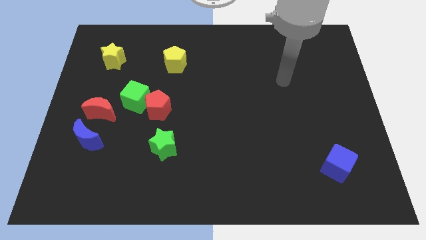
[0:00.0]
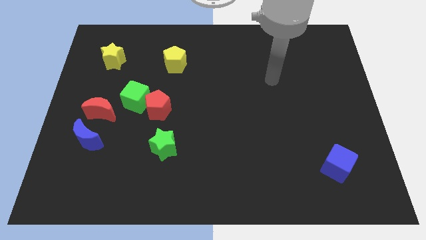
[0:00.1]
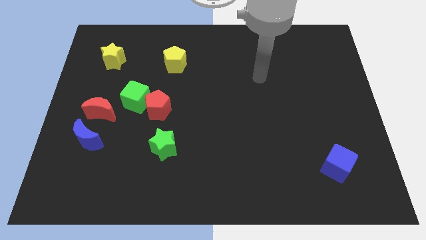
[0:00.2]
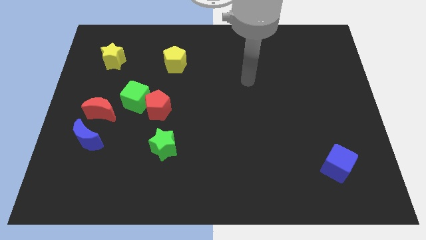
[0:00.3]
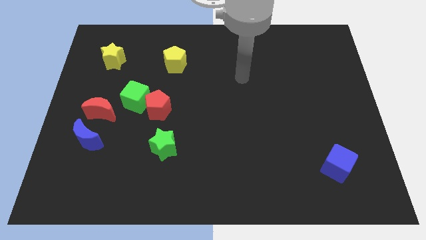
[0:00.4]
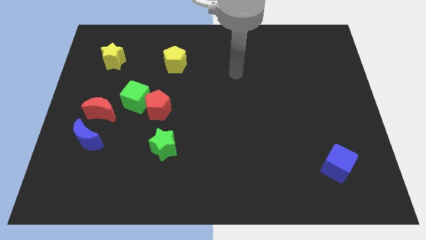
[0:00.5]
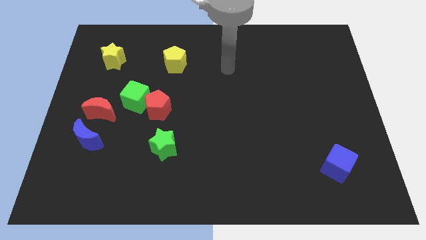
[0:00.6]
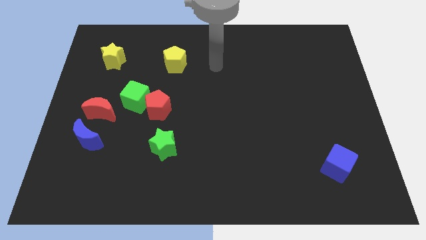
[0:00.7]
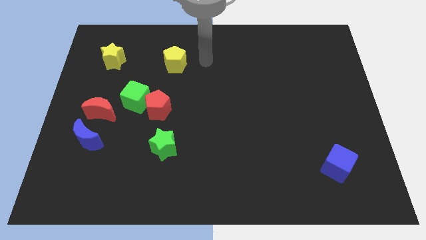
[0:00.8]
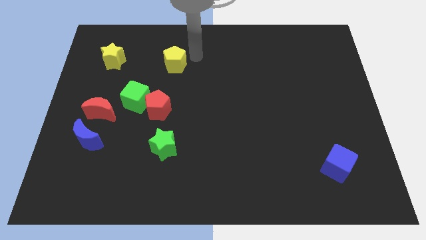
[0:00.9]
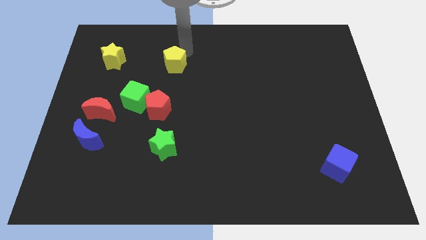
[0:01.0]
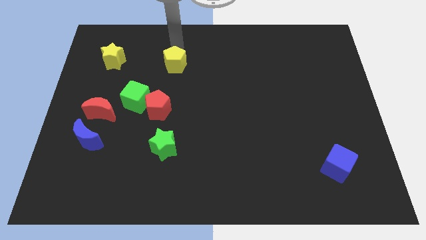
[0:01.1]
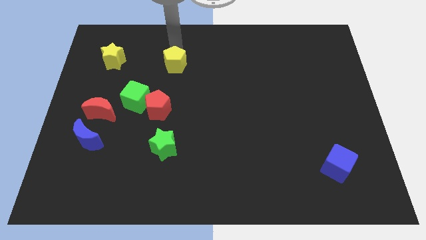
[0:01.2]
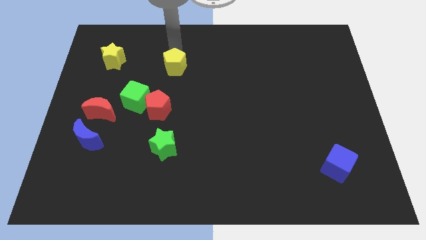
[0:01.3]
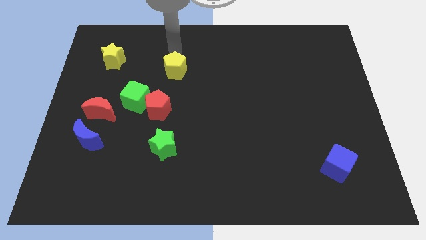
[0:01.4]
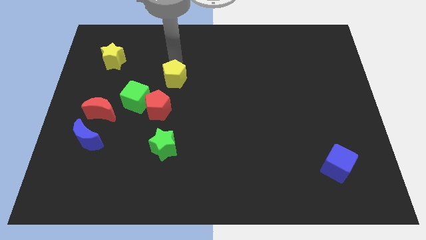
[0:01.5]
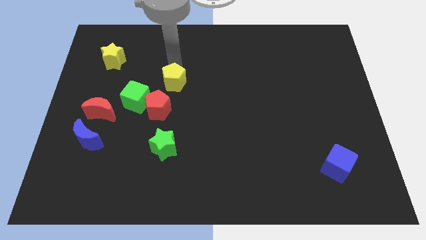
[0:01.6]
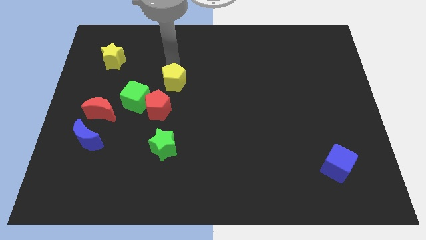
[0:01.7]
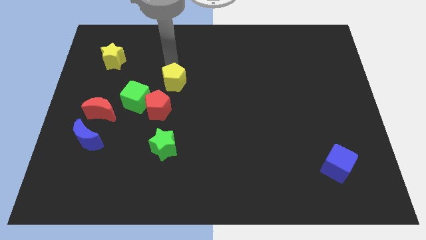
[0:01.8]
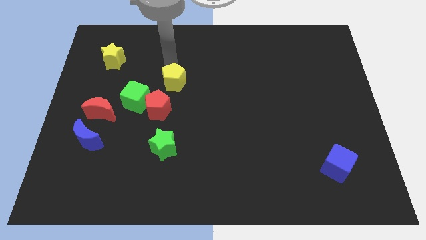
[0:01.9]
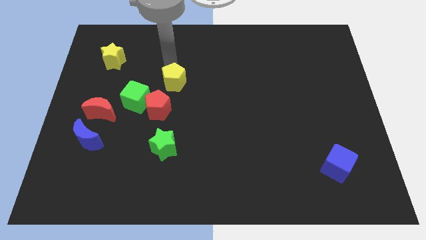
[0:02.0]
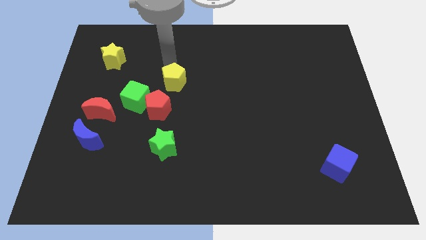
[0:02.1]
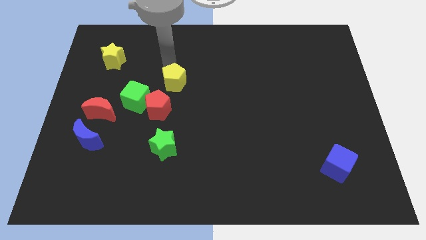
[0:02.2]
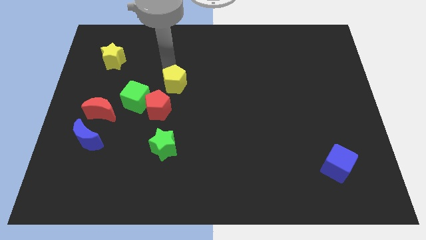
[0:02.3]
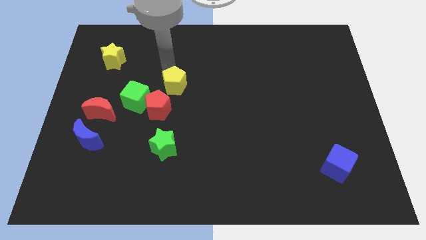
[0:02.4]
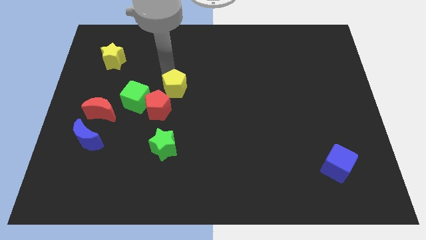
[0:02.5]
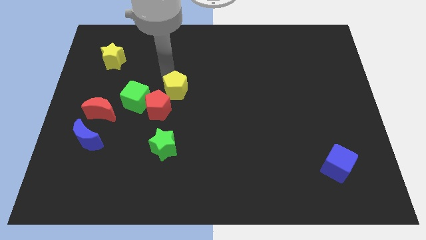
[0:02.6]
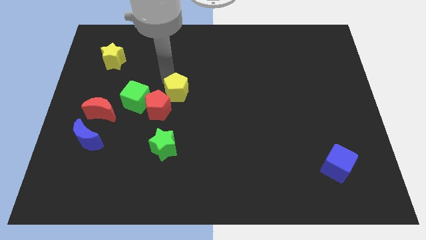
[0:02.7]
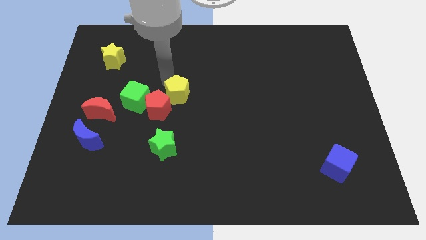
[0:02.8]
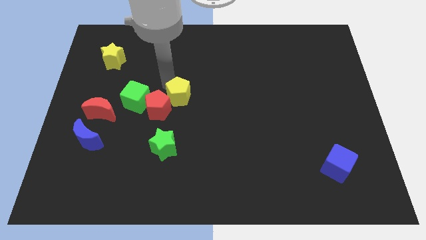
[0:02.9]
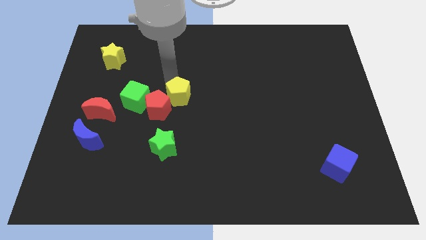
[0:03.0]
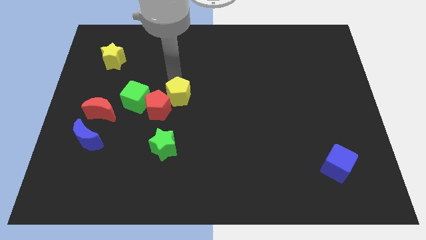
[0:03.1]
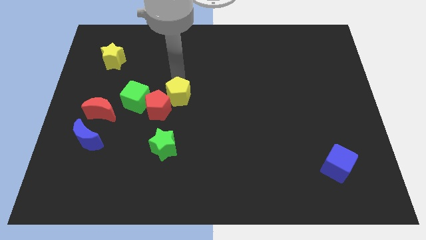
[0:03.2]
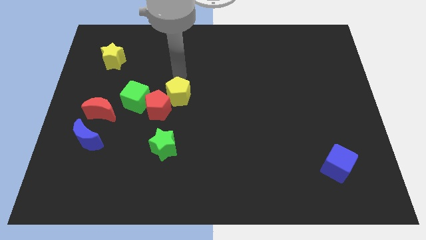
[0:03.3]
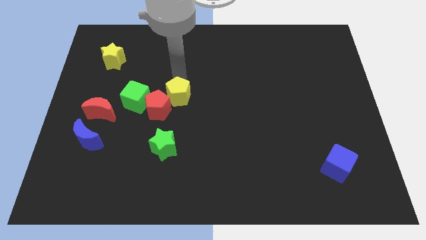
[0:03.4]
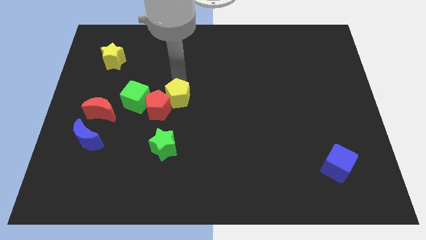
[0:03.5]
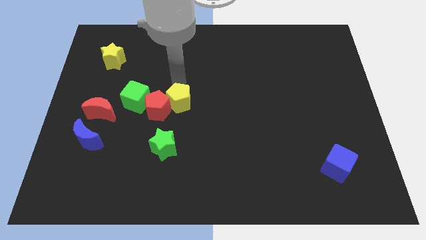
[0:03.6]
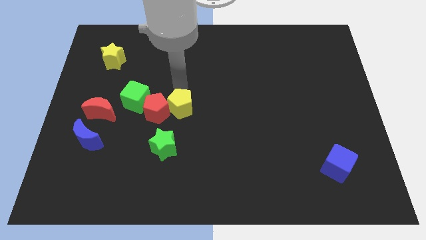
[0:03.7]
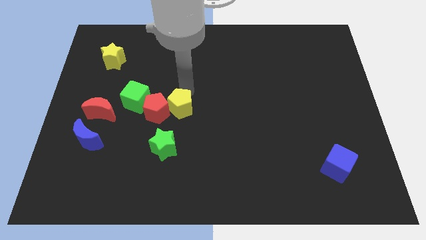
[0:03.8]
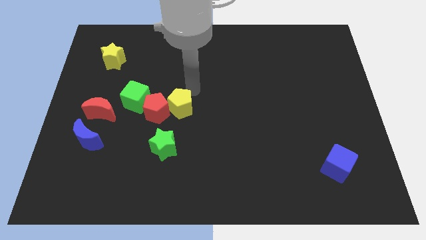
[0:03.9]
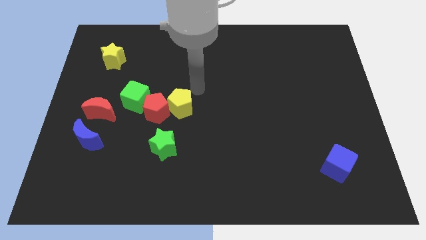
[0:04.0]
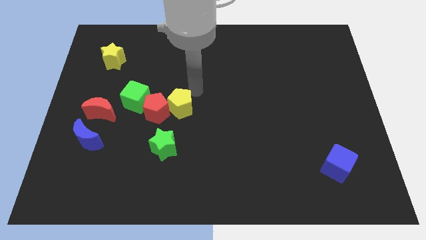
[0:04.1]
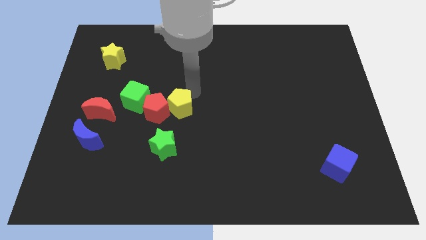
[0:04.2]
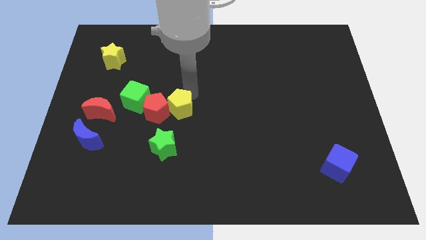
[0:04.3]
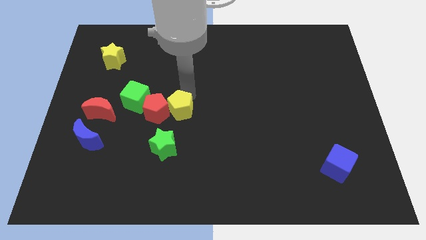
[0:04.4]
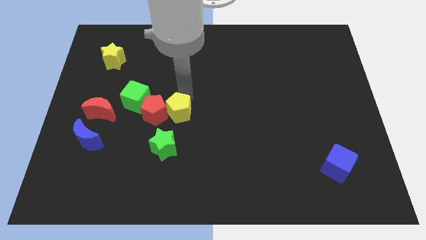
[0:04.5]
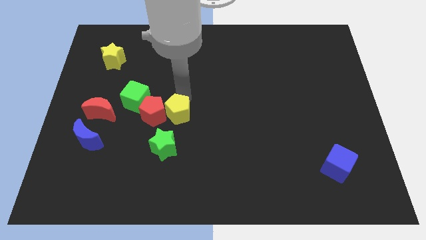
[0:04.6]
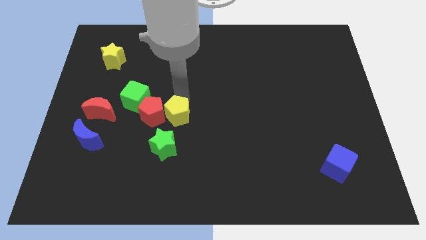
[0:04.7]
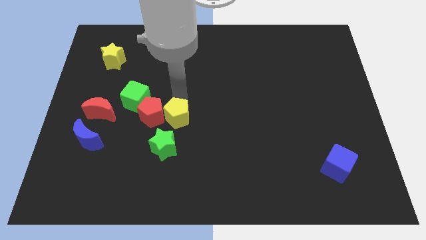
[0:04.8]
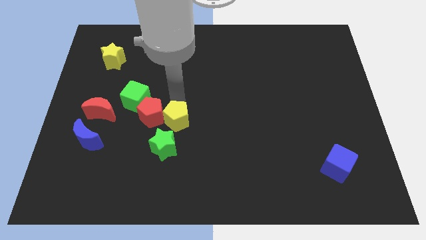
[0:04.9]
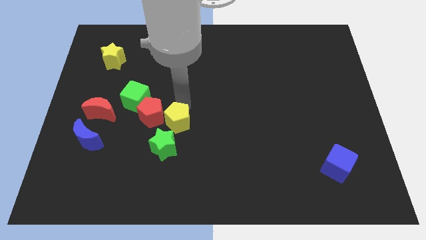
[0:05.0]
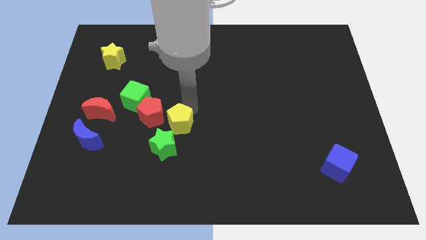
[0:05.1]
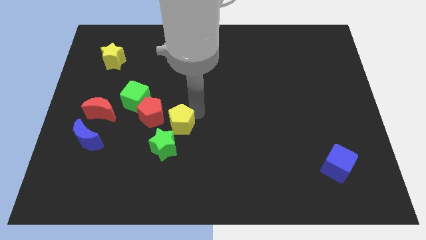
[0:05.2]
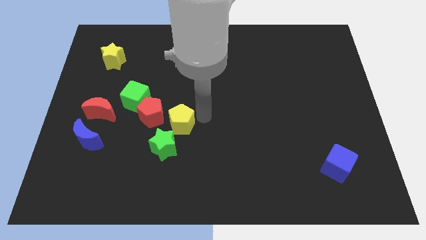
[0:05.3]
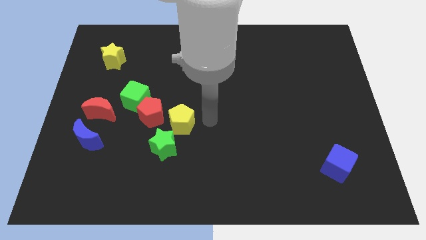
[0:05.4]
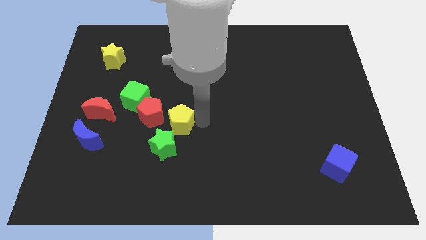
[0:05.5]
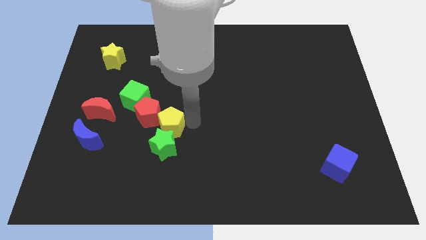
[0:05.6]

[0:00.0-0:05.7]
move the yellow pentagon to the top left side of the green star

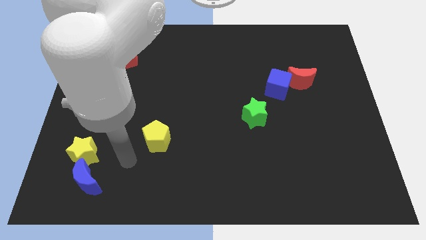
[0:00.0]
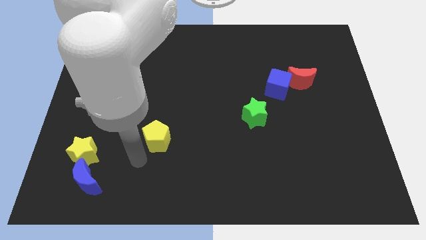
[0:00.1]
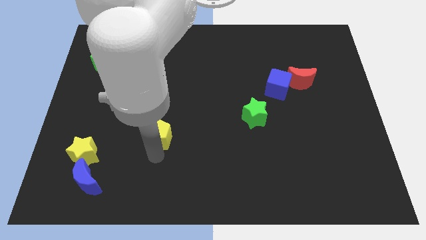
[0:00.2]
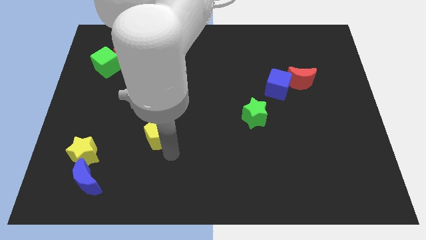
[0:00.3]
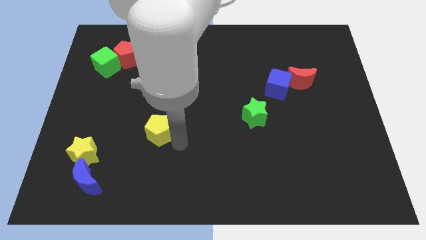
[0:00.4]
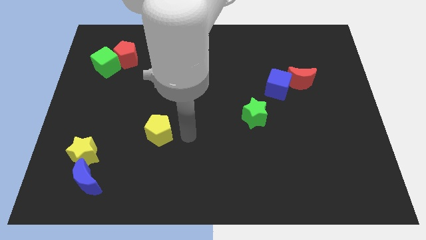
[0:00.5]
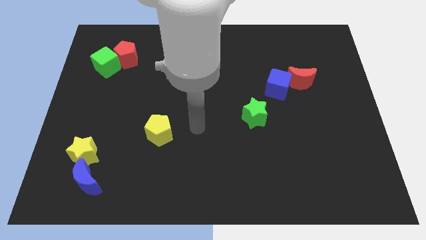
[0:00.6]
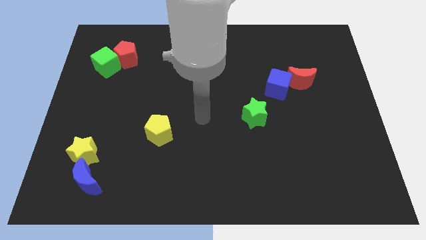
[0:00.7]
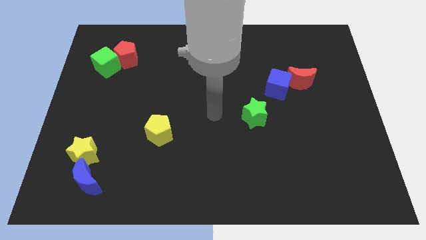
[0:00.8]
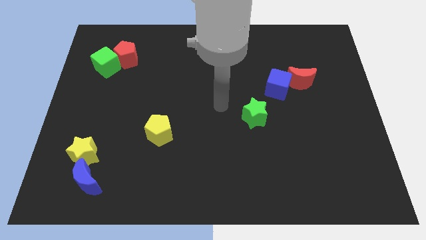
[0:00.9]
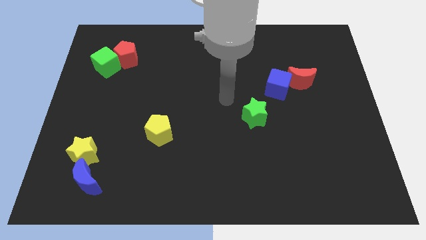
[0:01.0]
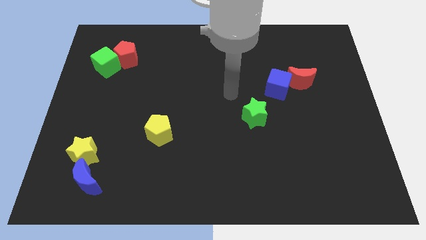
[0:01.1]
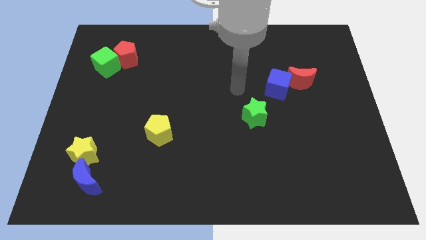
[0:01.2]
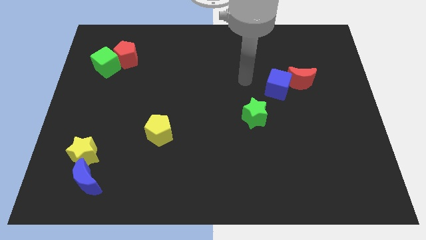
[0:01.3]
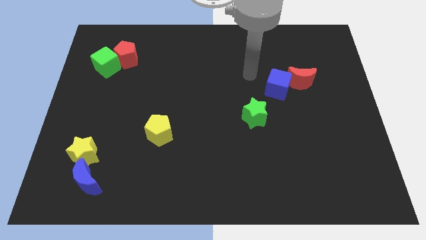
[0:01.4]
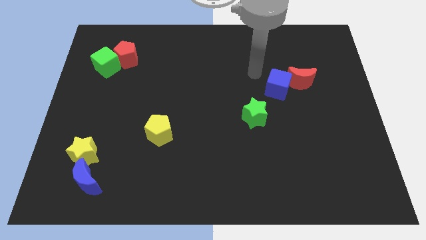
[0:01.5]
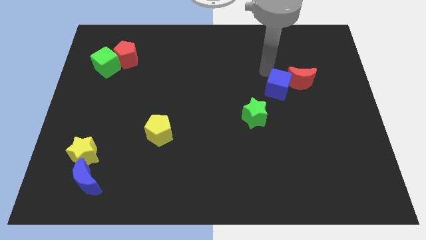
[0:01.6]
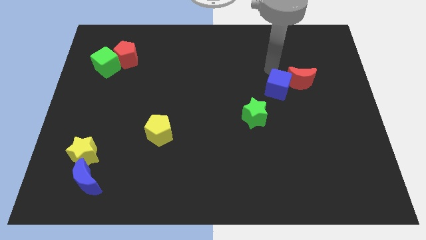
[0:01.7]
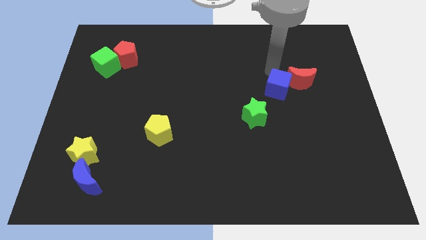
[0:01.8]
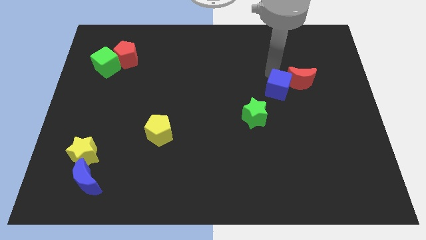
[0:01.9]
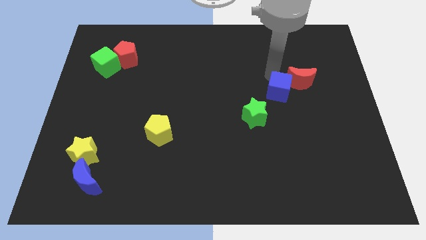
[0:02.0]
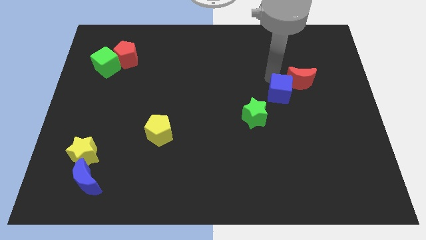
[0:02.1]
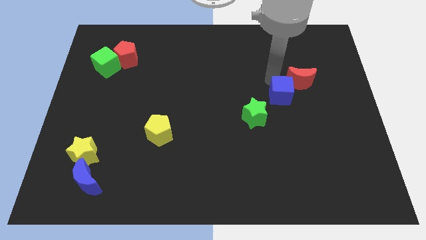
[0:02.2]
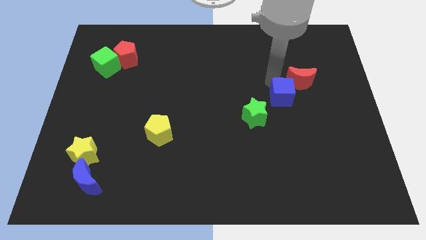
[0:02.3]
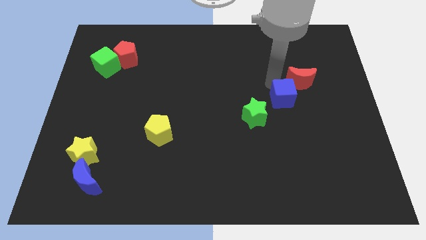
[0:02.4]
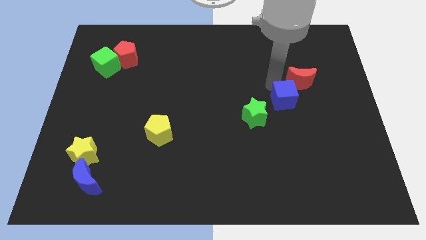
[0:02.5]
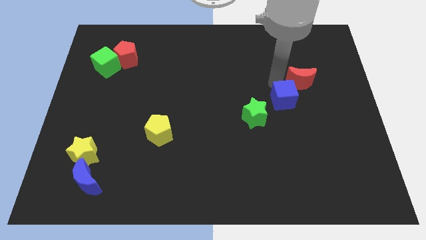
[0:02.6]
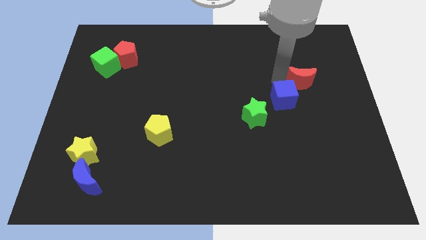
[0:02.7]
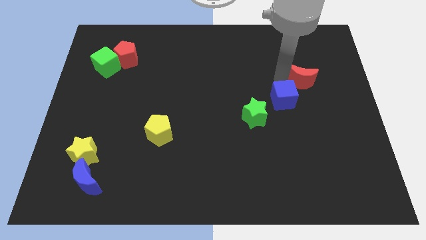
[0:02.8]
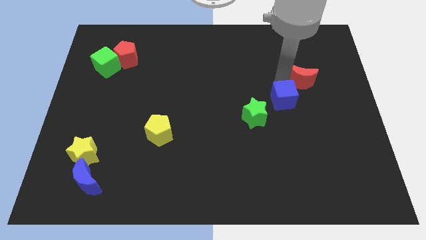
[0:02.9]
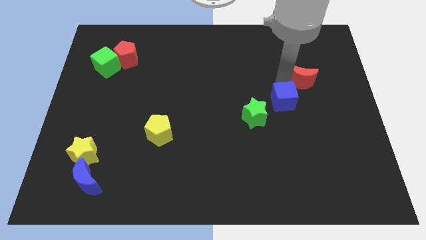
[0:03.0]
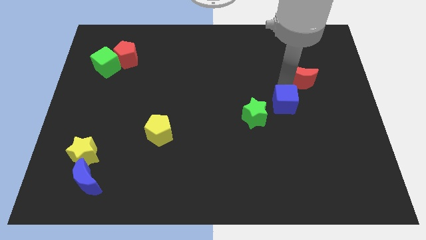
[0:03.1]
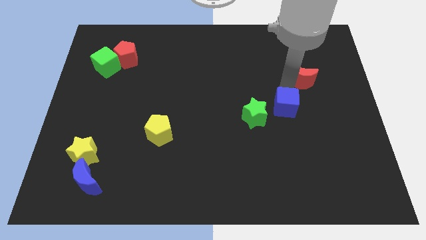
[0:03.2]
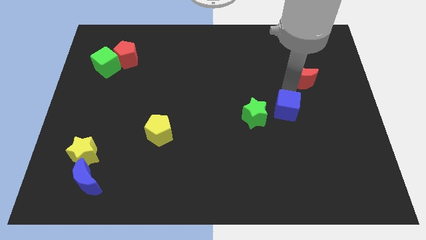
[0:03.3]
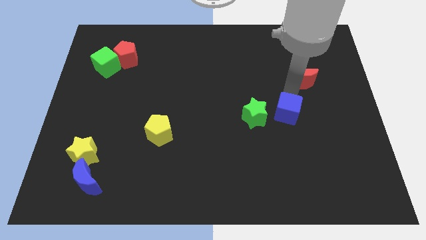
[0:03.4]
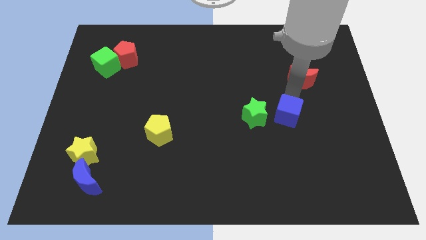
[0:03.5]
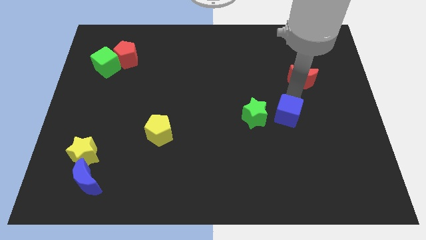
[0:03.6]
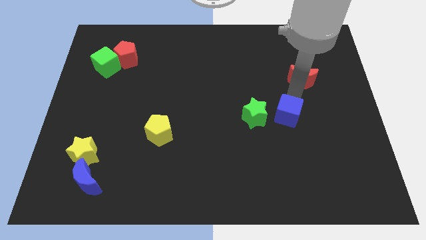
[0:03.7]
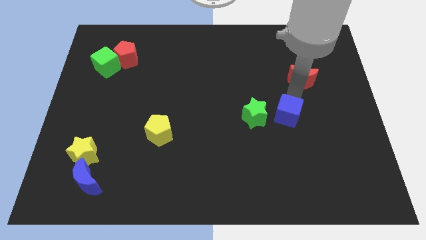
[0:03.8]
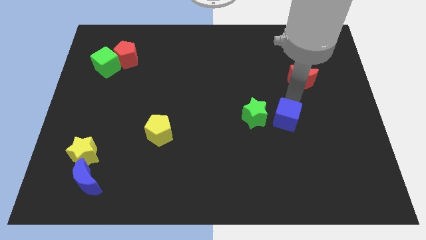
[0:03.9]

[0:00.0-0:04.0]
put the blue cube to the bottom right of the green star
